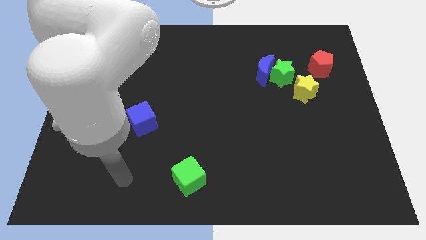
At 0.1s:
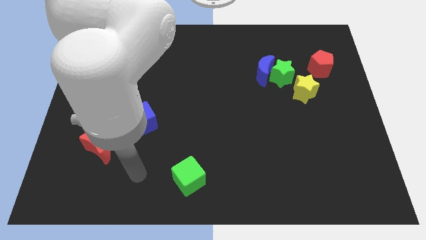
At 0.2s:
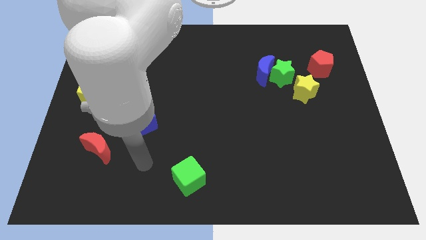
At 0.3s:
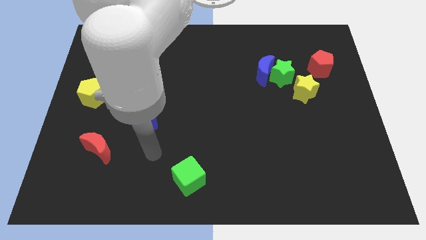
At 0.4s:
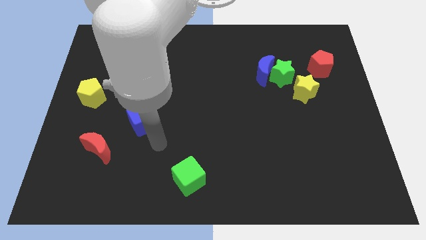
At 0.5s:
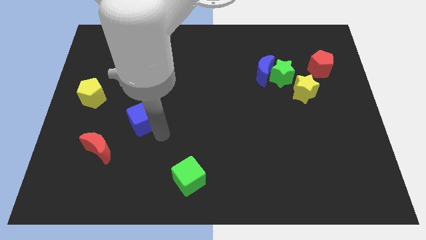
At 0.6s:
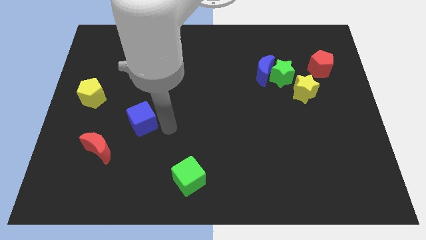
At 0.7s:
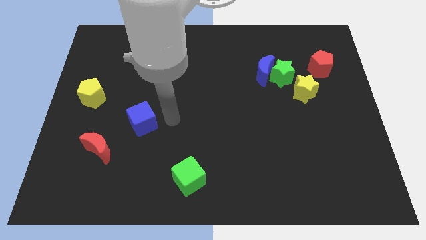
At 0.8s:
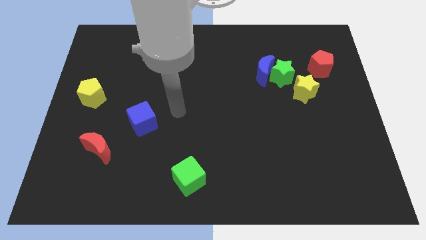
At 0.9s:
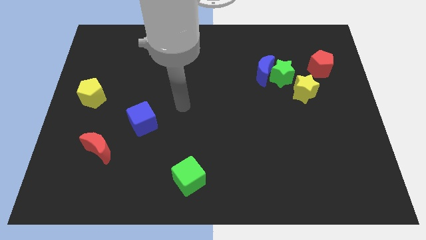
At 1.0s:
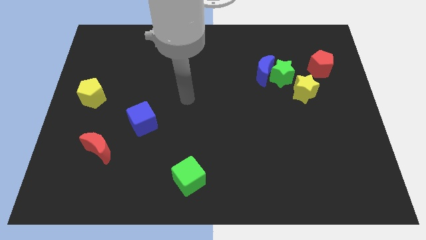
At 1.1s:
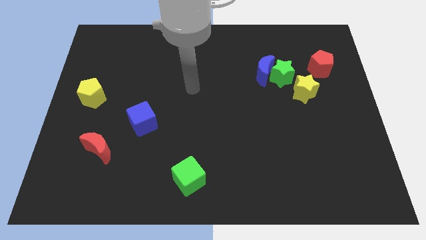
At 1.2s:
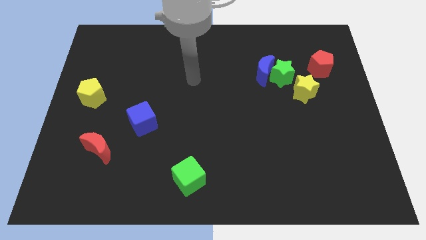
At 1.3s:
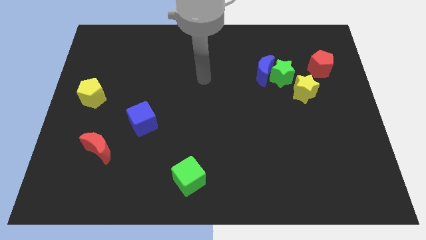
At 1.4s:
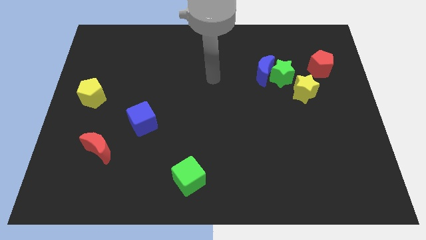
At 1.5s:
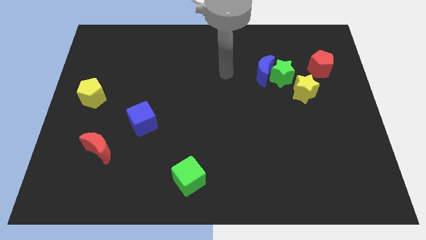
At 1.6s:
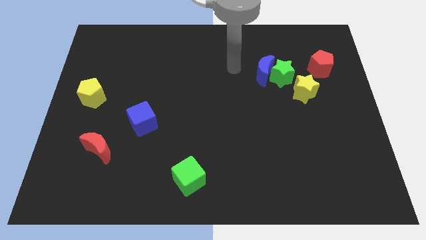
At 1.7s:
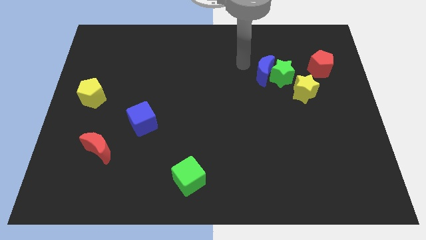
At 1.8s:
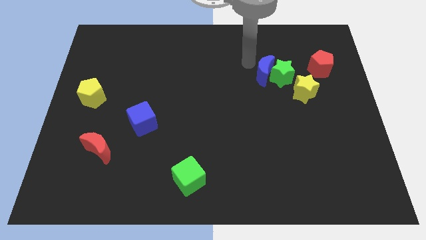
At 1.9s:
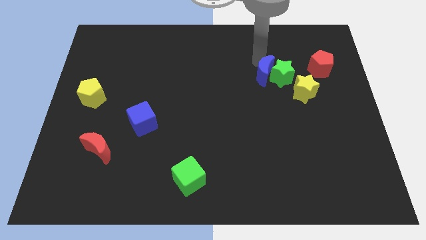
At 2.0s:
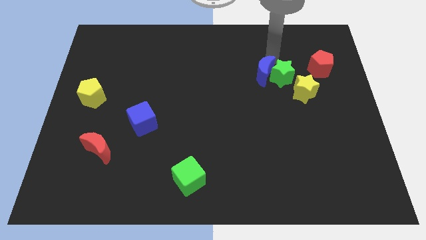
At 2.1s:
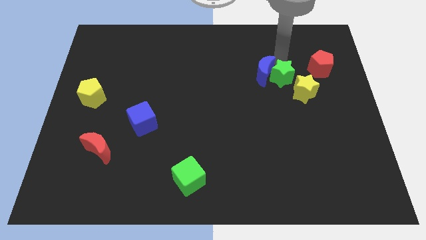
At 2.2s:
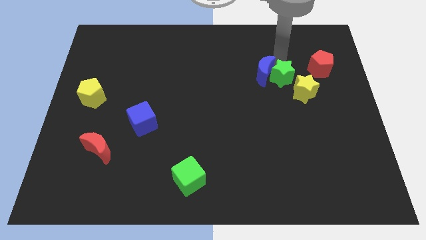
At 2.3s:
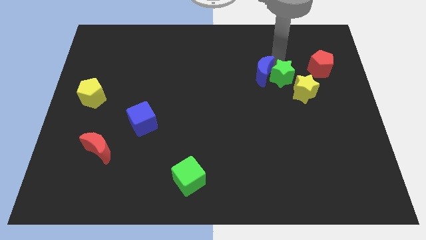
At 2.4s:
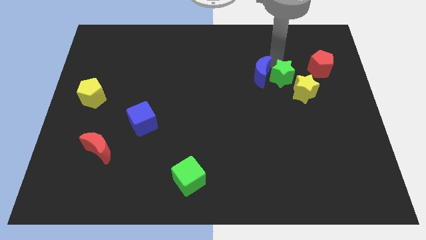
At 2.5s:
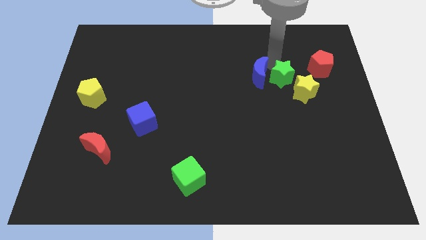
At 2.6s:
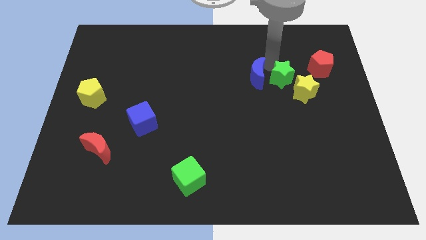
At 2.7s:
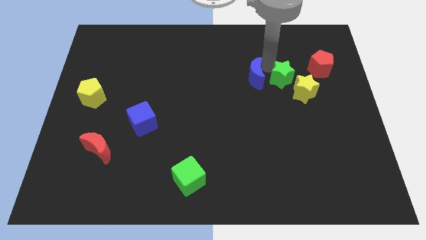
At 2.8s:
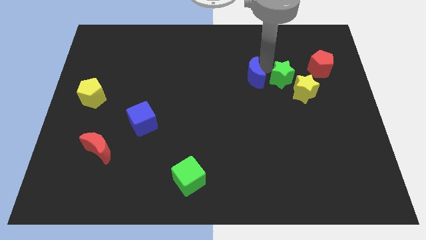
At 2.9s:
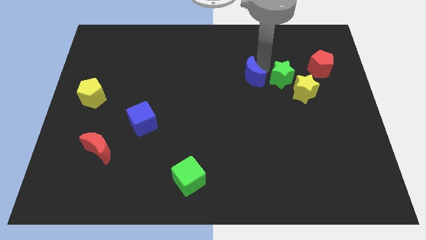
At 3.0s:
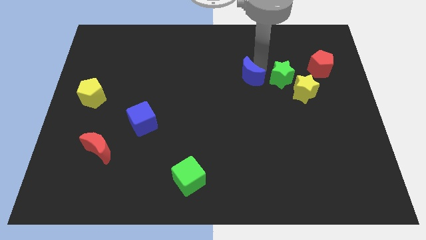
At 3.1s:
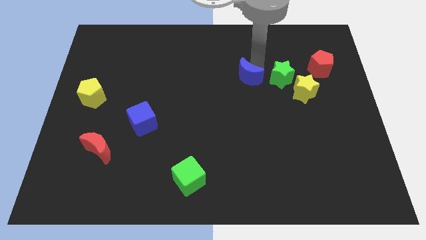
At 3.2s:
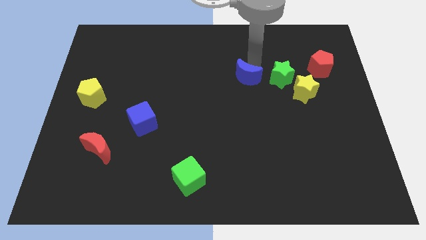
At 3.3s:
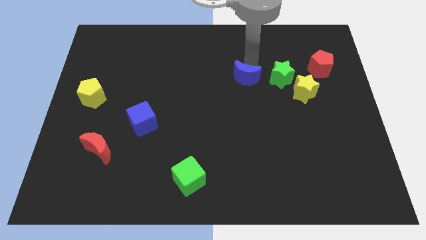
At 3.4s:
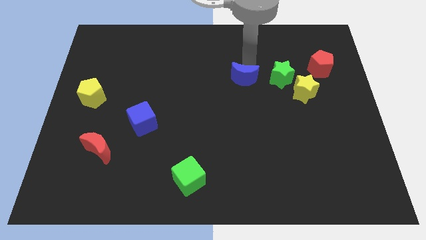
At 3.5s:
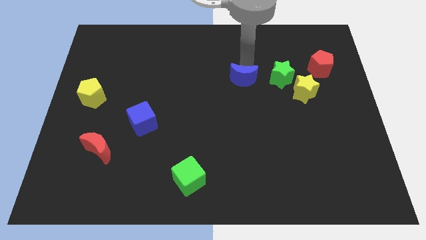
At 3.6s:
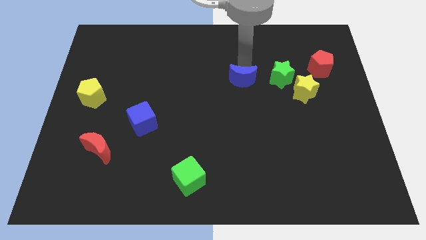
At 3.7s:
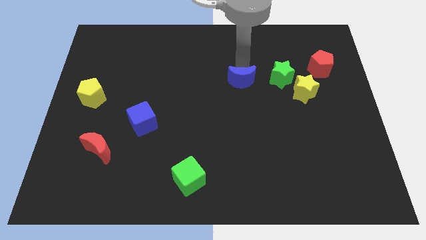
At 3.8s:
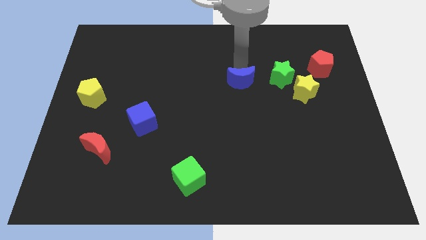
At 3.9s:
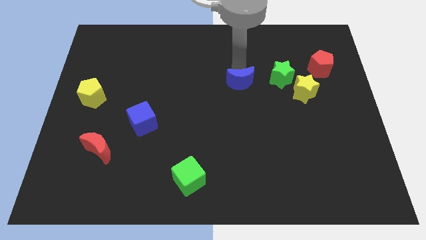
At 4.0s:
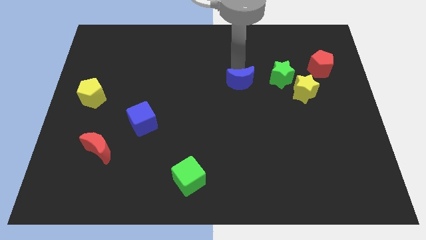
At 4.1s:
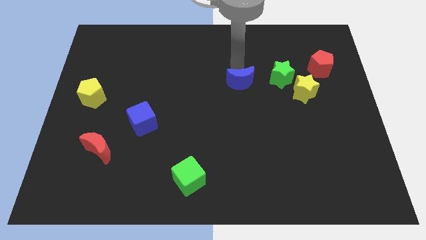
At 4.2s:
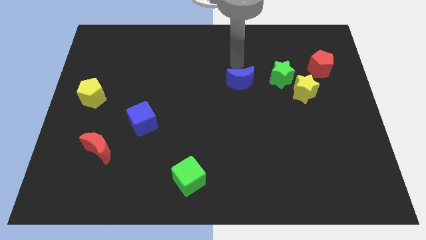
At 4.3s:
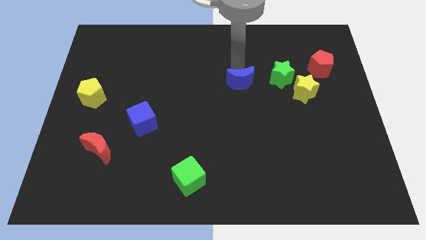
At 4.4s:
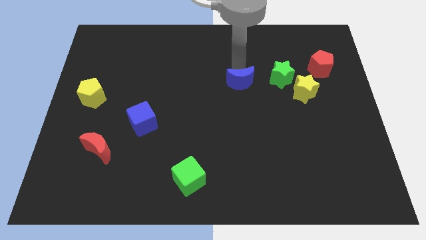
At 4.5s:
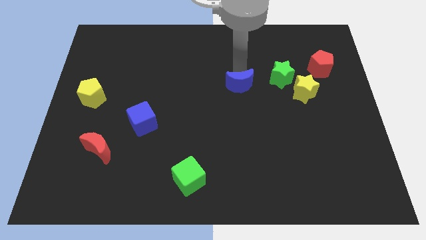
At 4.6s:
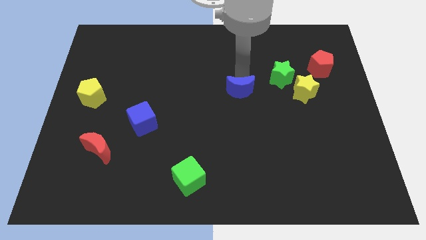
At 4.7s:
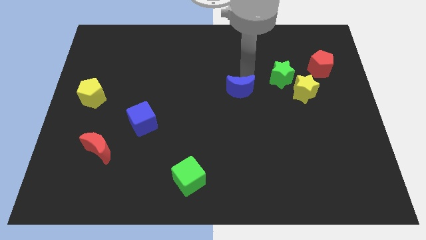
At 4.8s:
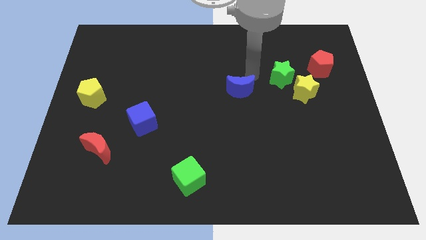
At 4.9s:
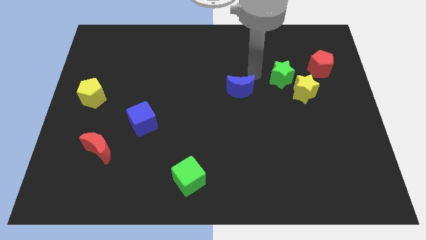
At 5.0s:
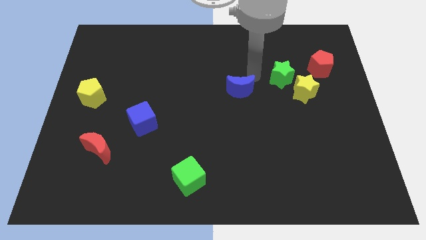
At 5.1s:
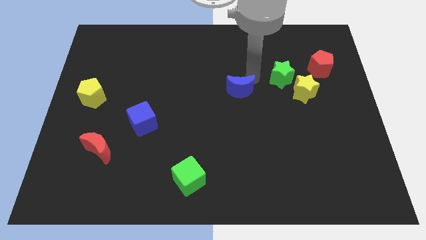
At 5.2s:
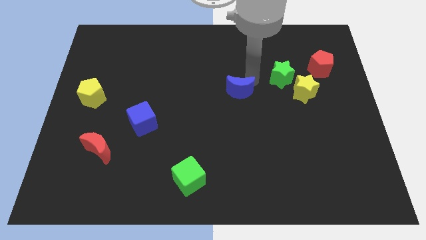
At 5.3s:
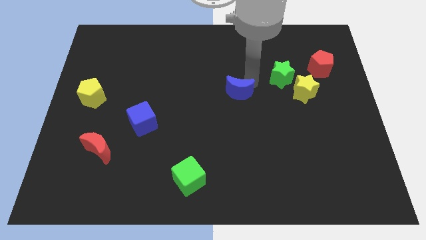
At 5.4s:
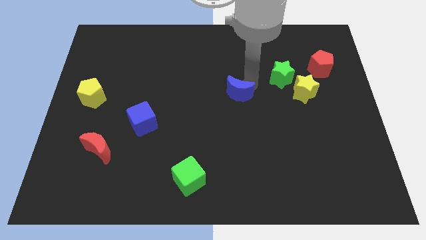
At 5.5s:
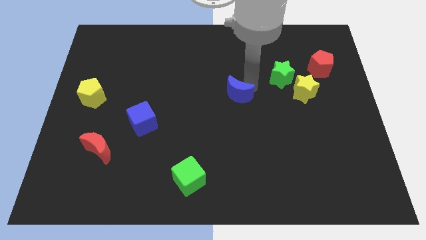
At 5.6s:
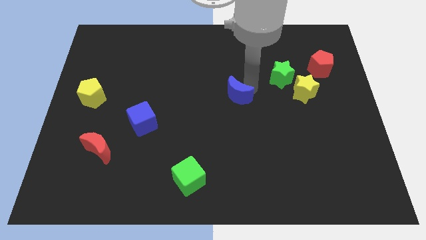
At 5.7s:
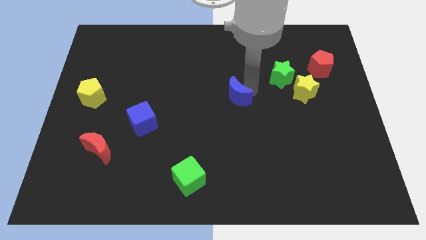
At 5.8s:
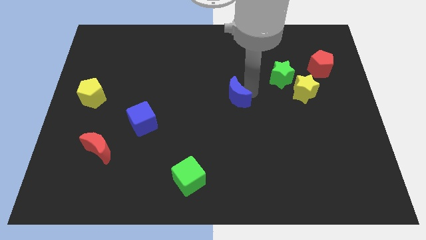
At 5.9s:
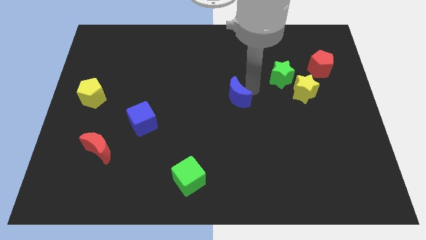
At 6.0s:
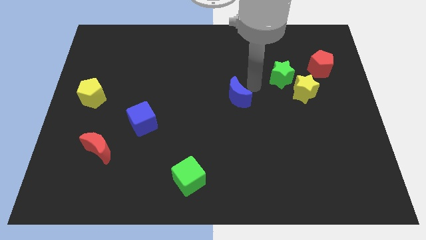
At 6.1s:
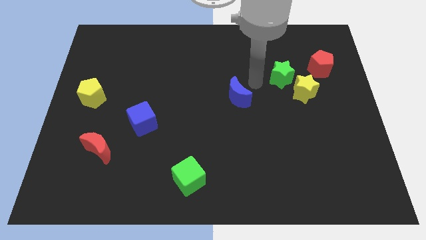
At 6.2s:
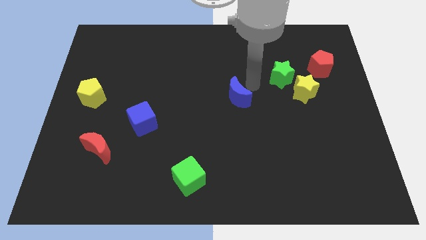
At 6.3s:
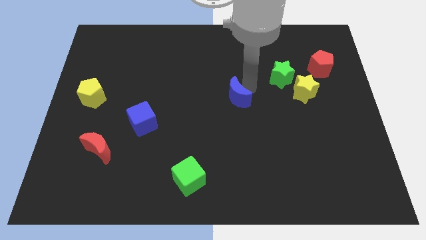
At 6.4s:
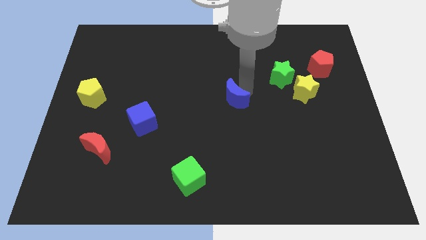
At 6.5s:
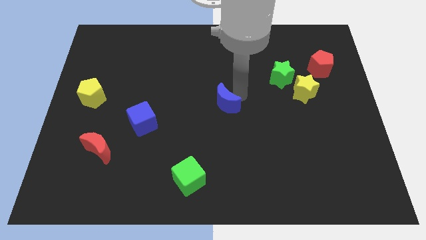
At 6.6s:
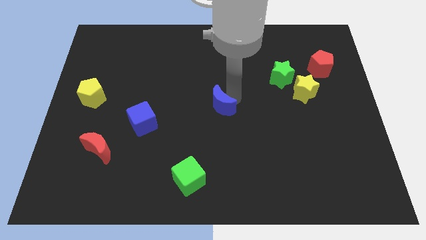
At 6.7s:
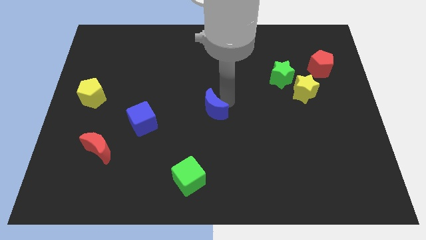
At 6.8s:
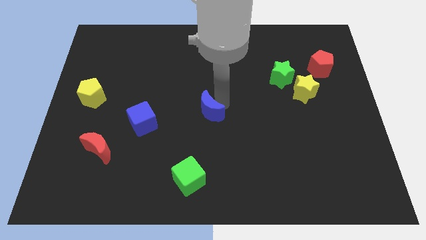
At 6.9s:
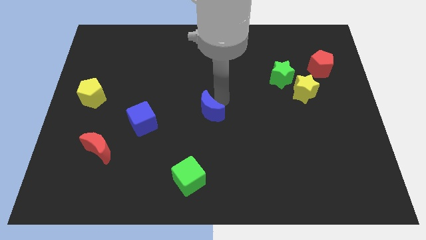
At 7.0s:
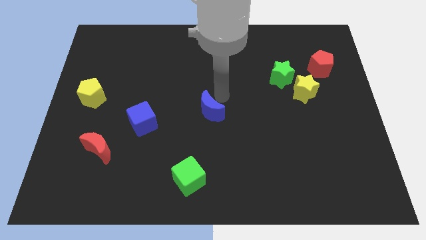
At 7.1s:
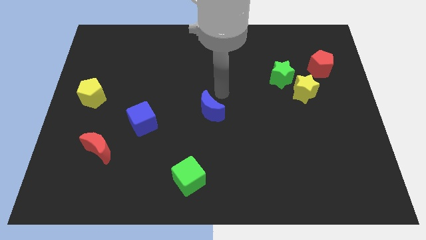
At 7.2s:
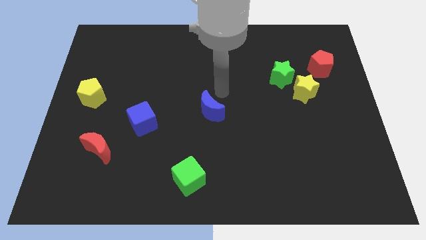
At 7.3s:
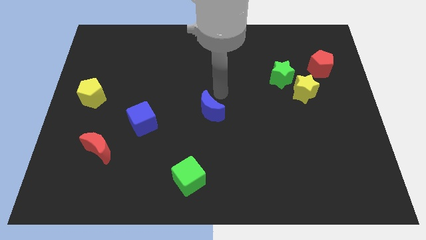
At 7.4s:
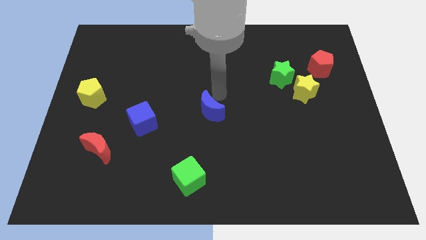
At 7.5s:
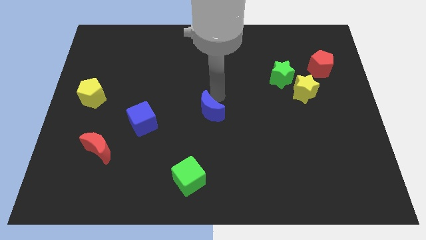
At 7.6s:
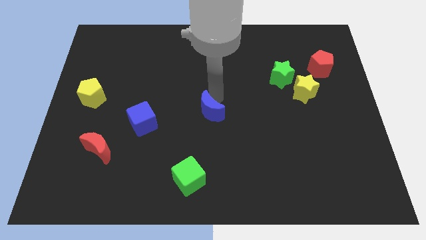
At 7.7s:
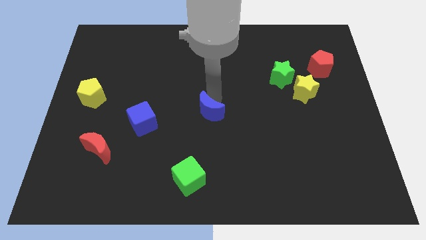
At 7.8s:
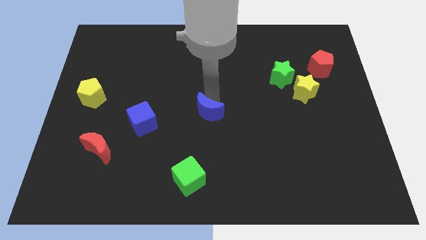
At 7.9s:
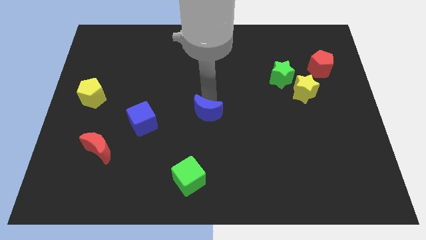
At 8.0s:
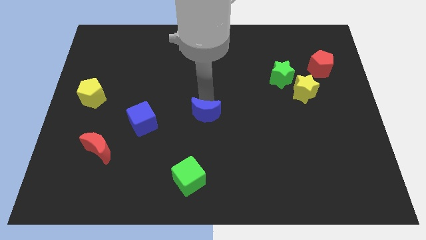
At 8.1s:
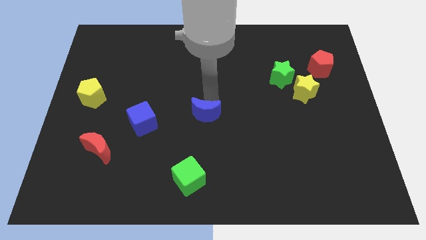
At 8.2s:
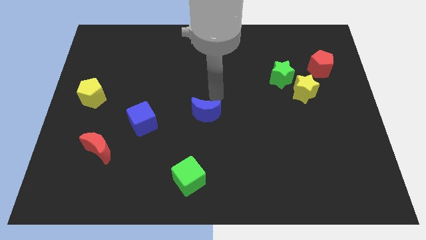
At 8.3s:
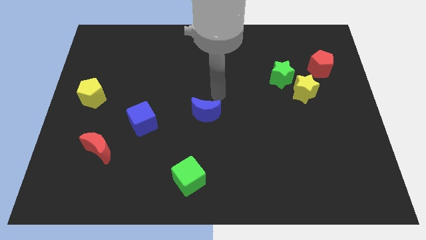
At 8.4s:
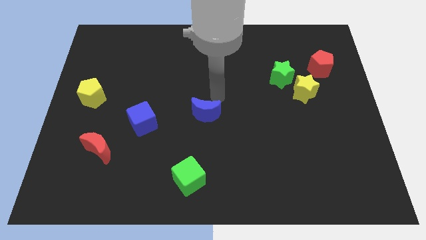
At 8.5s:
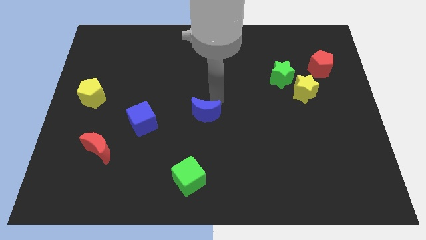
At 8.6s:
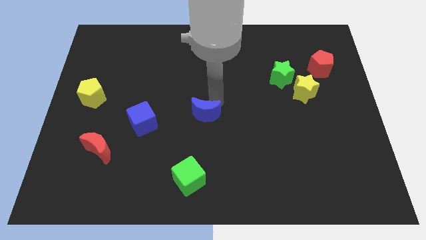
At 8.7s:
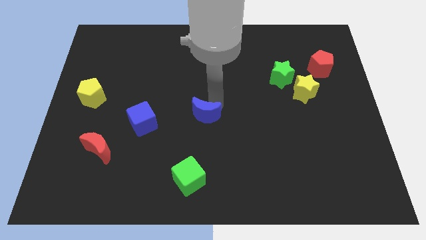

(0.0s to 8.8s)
slide the blue moon diagonally downwards and left
